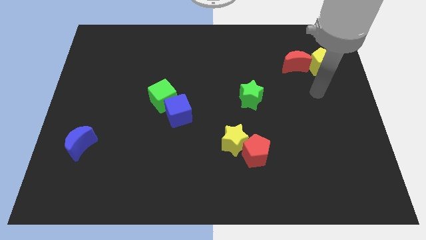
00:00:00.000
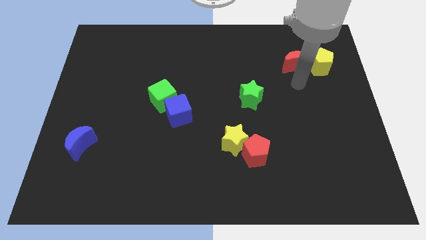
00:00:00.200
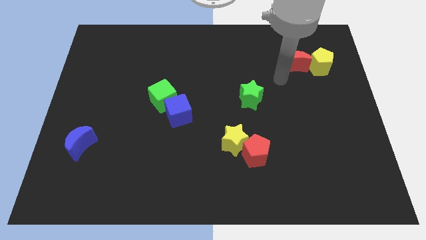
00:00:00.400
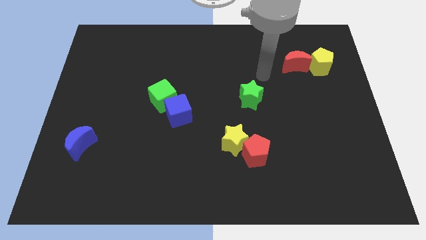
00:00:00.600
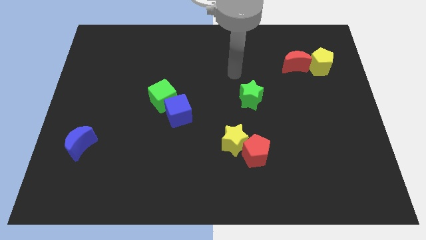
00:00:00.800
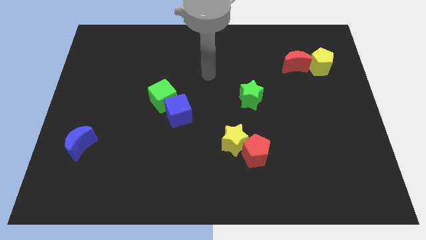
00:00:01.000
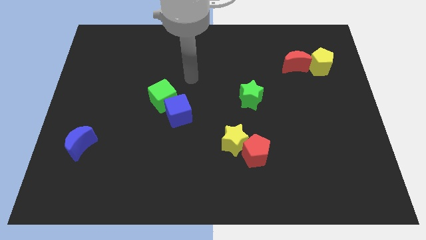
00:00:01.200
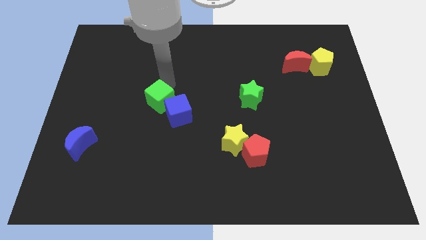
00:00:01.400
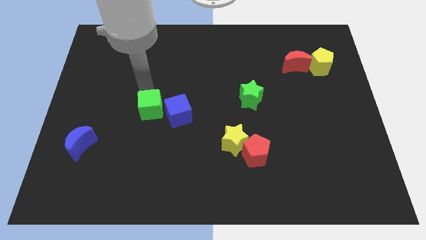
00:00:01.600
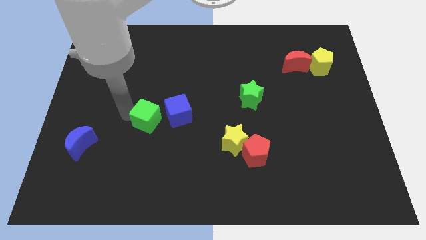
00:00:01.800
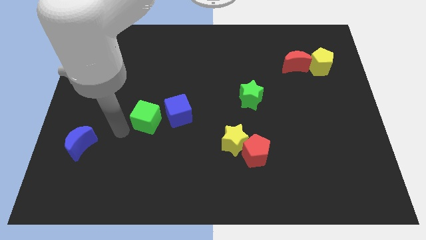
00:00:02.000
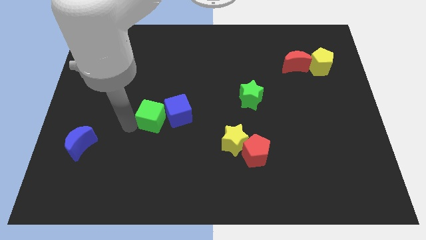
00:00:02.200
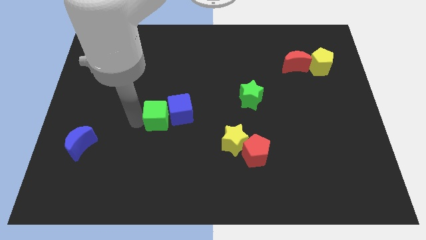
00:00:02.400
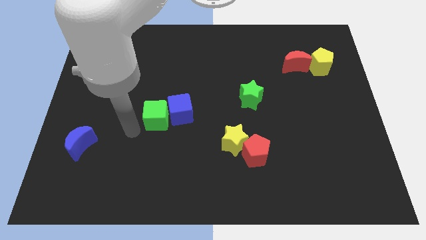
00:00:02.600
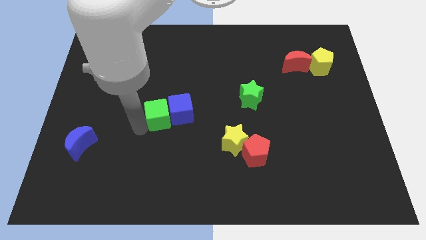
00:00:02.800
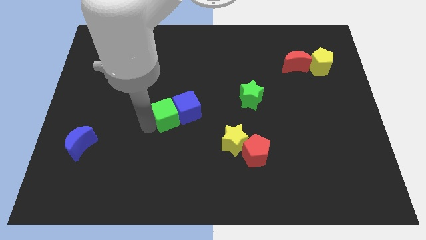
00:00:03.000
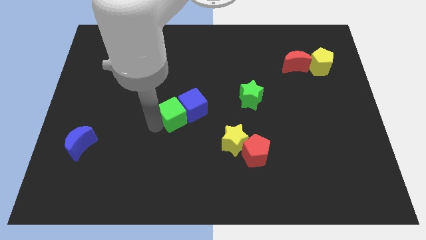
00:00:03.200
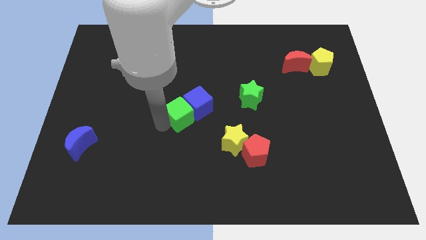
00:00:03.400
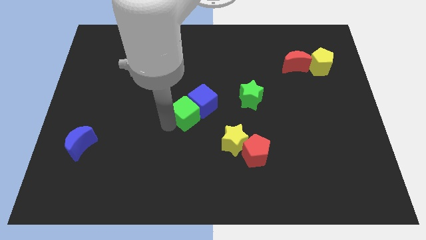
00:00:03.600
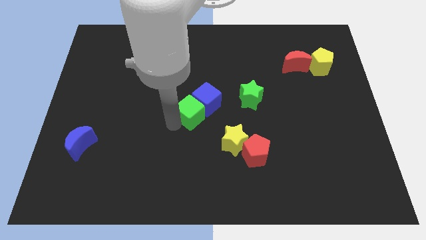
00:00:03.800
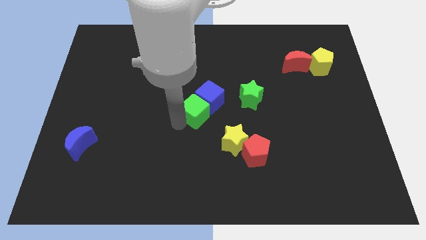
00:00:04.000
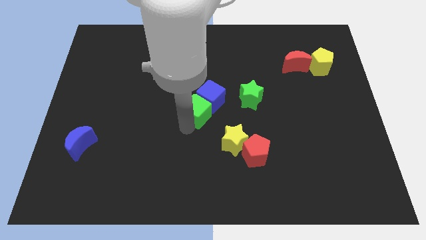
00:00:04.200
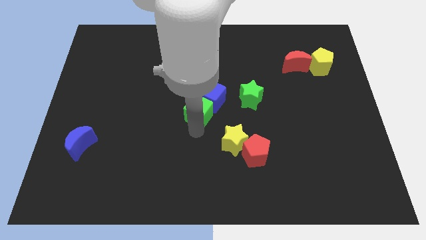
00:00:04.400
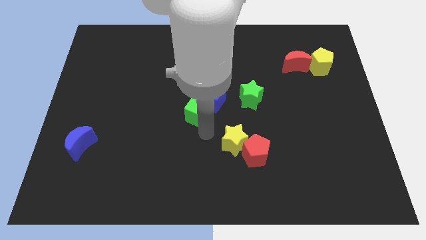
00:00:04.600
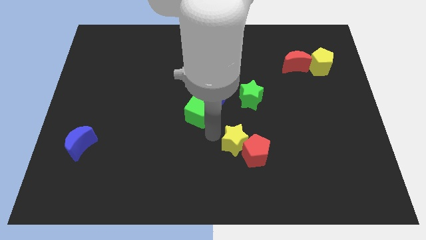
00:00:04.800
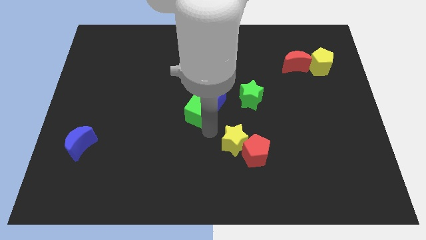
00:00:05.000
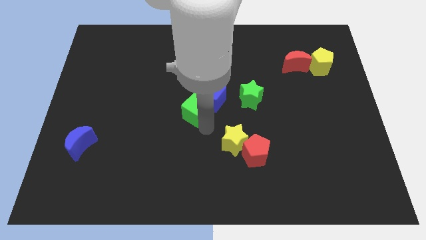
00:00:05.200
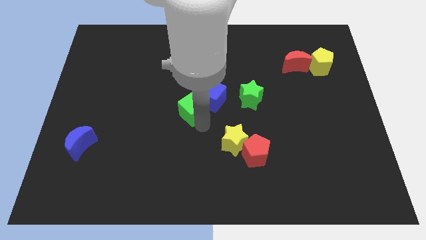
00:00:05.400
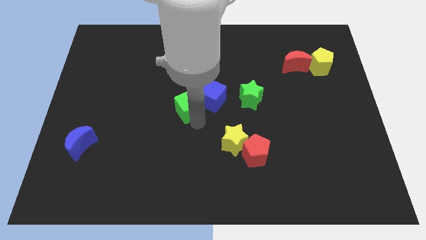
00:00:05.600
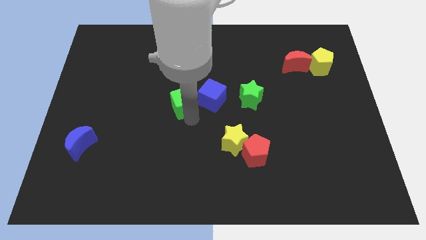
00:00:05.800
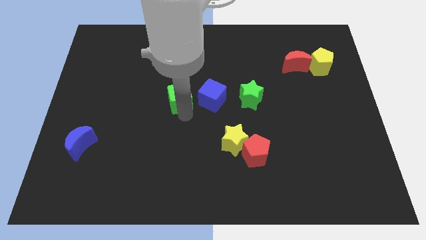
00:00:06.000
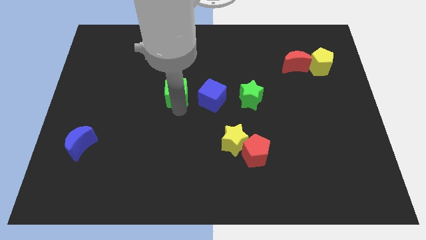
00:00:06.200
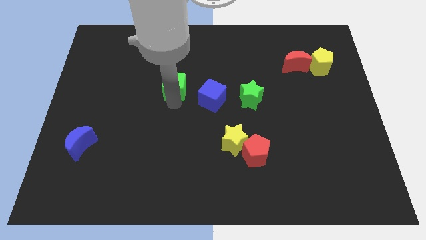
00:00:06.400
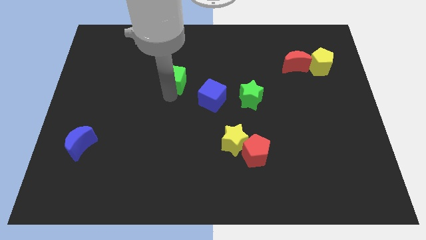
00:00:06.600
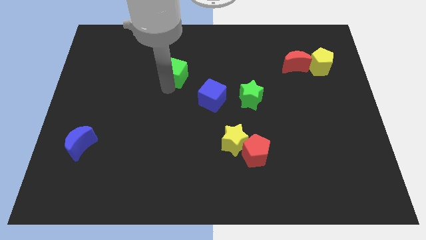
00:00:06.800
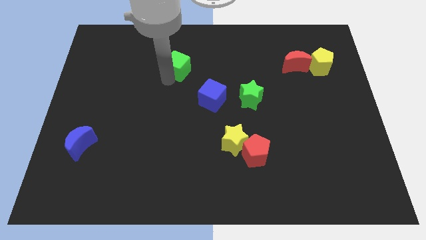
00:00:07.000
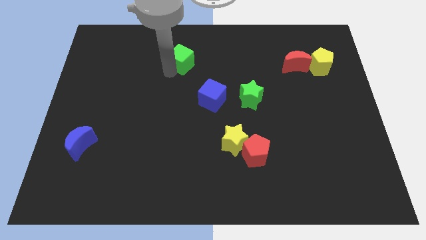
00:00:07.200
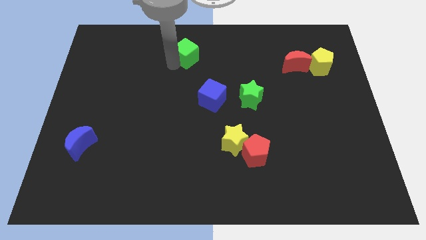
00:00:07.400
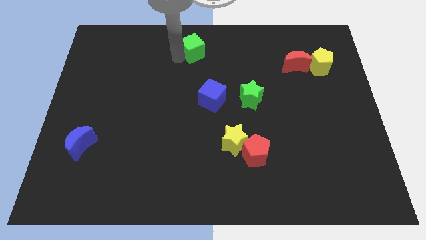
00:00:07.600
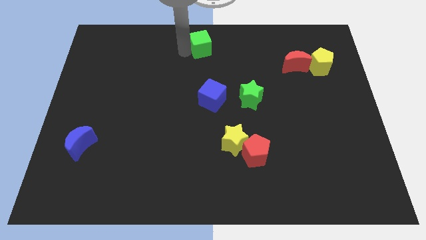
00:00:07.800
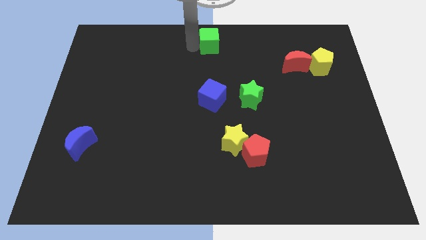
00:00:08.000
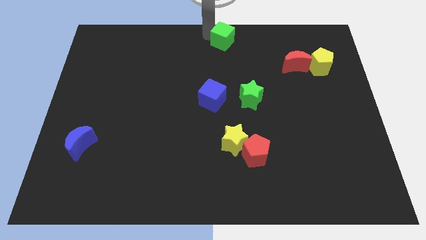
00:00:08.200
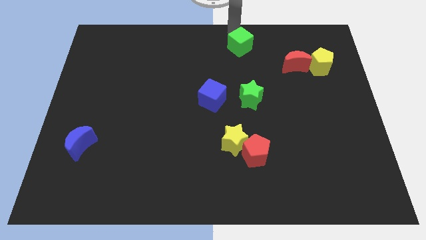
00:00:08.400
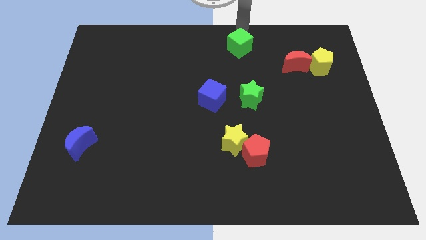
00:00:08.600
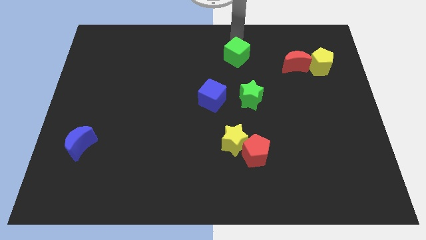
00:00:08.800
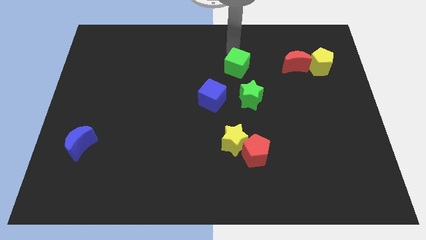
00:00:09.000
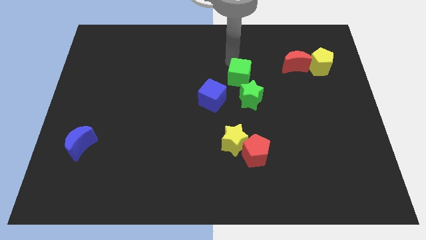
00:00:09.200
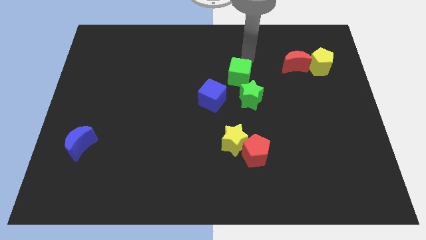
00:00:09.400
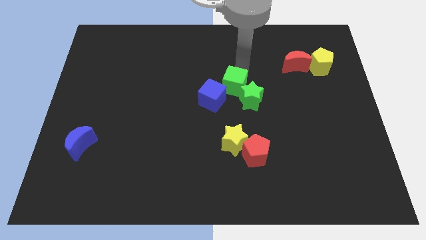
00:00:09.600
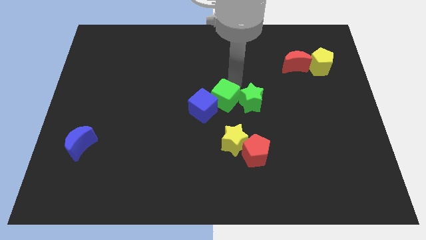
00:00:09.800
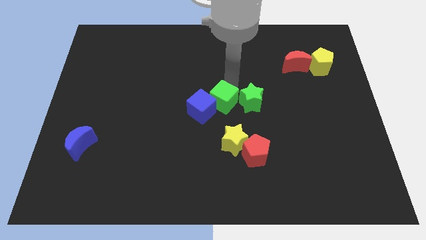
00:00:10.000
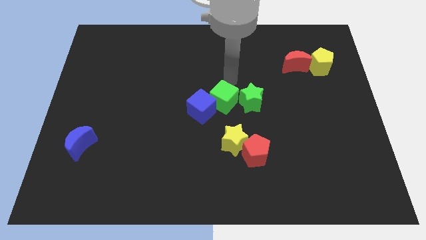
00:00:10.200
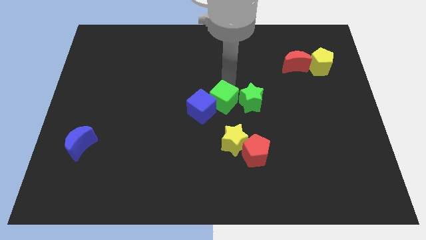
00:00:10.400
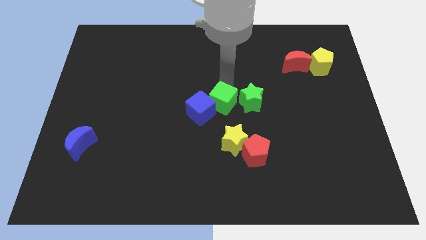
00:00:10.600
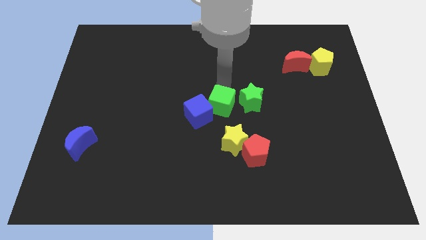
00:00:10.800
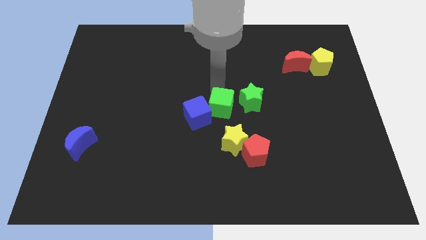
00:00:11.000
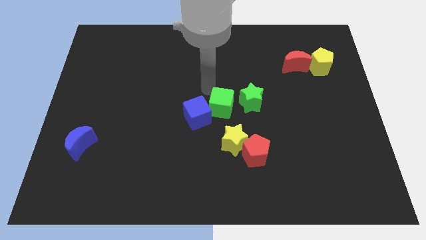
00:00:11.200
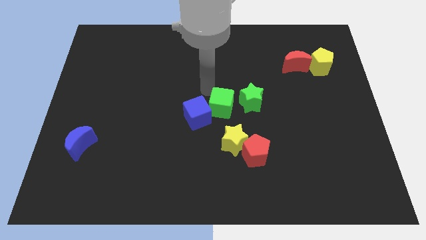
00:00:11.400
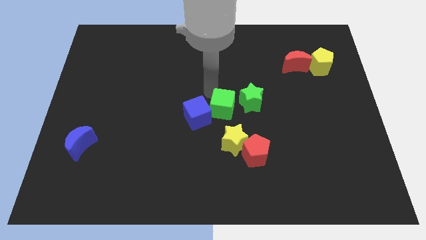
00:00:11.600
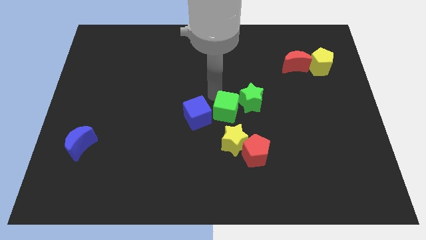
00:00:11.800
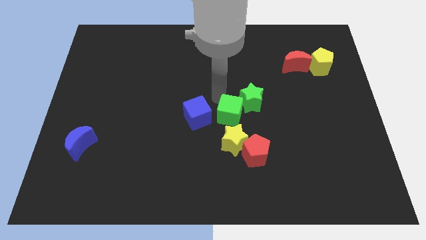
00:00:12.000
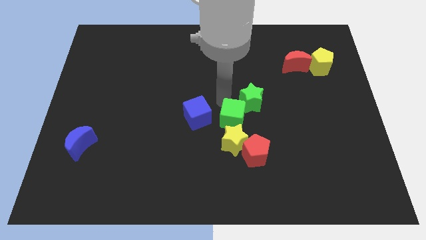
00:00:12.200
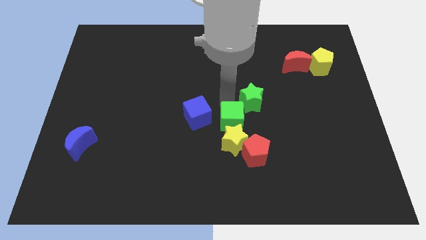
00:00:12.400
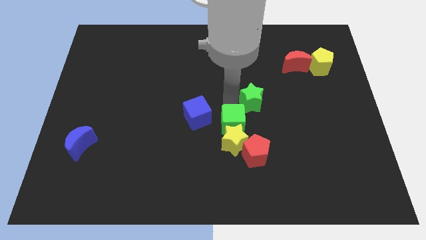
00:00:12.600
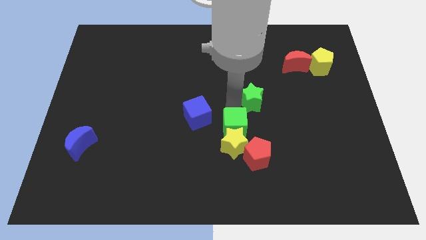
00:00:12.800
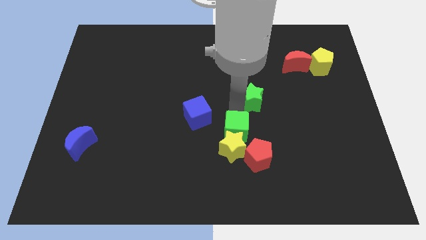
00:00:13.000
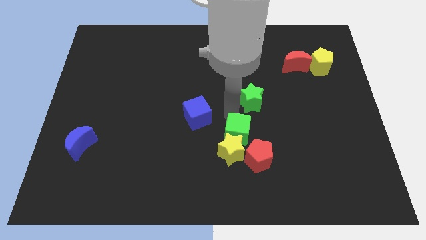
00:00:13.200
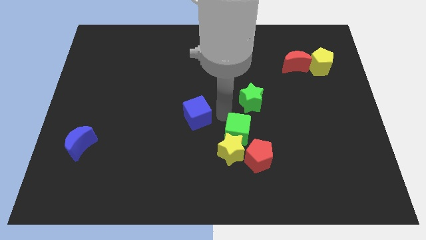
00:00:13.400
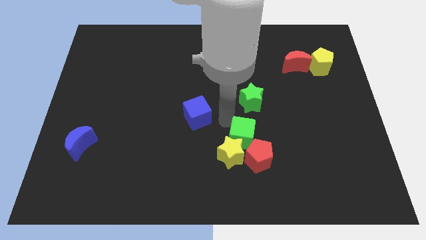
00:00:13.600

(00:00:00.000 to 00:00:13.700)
push the green cube towards the red pentagon
